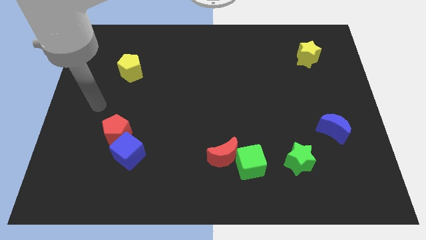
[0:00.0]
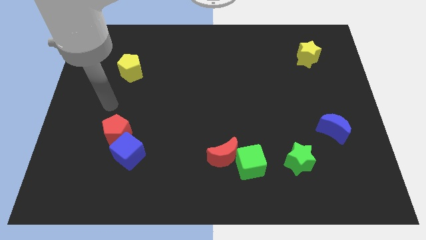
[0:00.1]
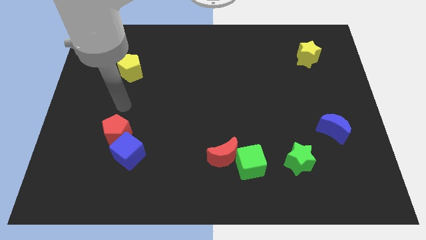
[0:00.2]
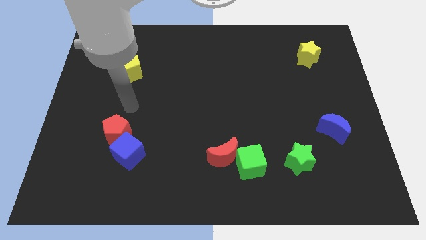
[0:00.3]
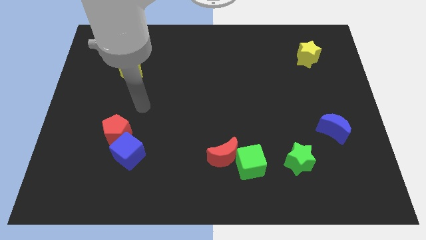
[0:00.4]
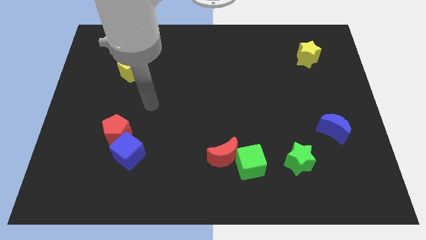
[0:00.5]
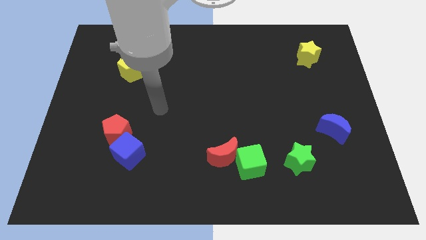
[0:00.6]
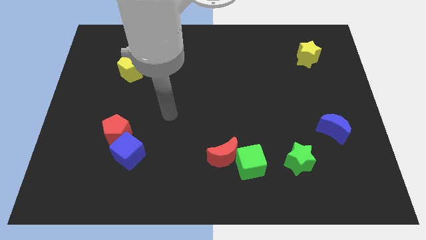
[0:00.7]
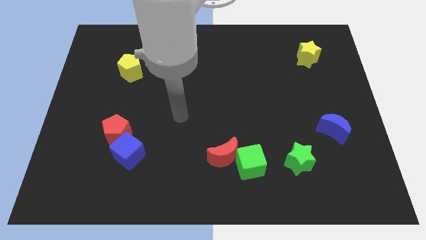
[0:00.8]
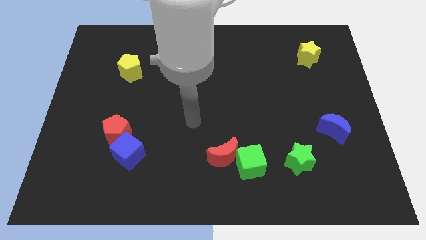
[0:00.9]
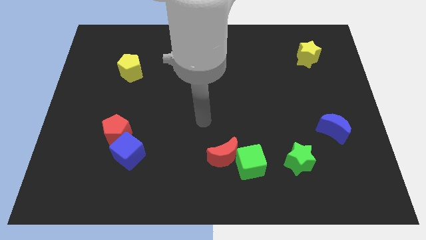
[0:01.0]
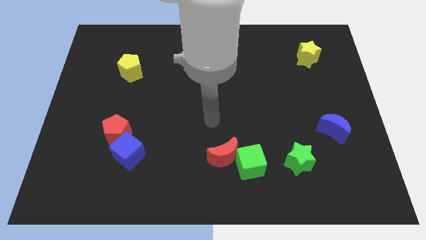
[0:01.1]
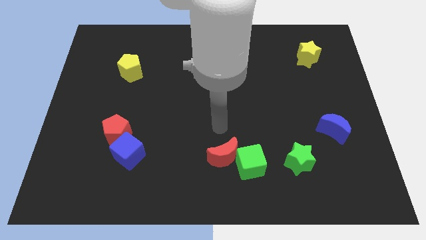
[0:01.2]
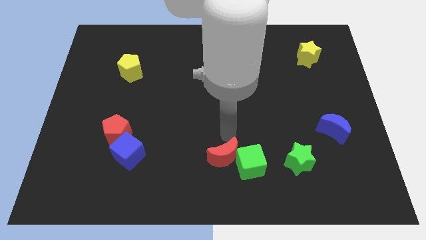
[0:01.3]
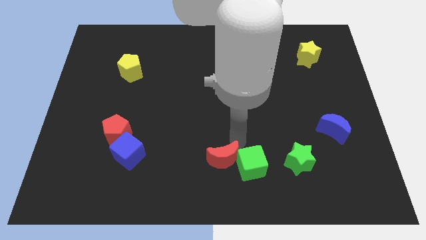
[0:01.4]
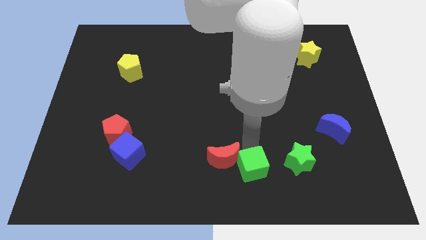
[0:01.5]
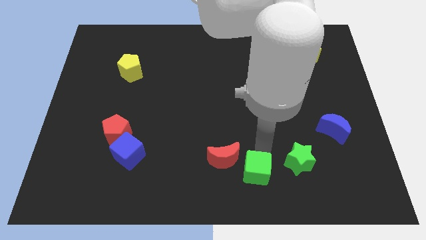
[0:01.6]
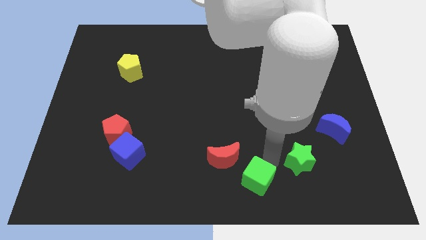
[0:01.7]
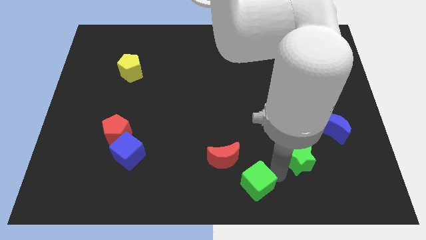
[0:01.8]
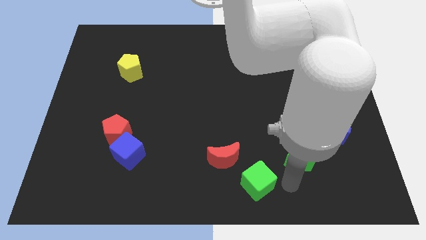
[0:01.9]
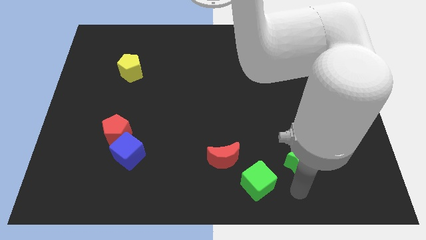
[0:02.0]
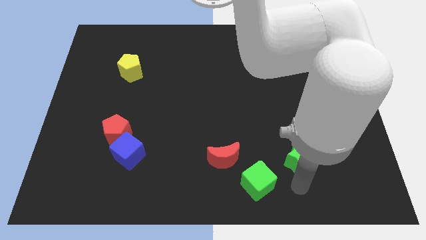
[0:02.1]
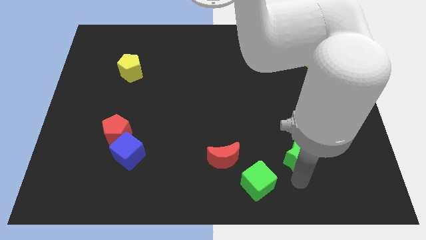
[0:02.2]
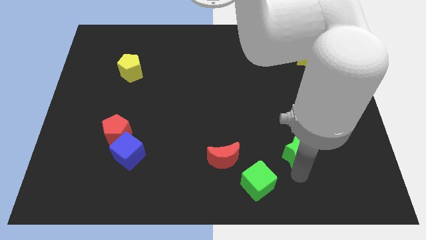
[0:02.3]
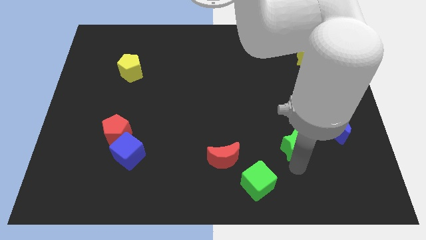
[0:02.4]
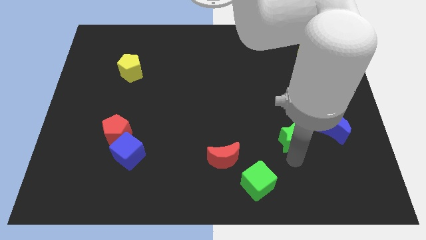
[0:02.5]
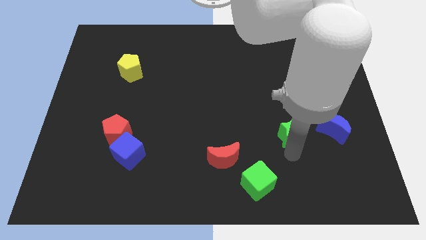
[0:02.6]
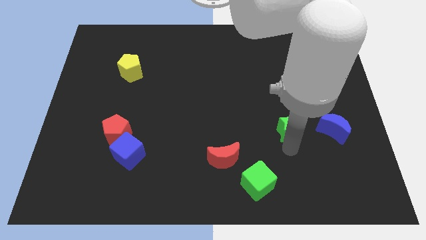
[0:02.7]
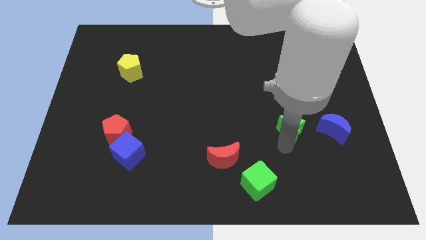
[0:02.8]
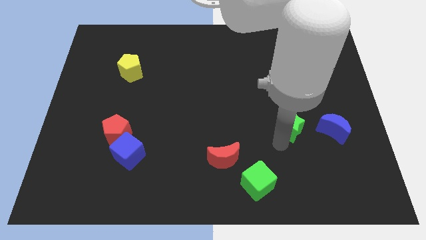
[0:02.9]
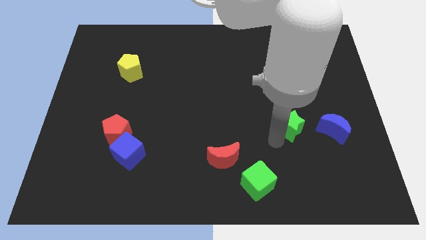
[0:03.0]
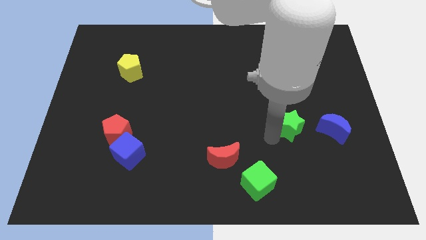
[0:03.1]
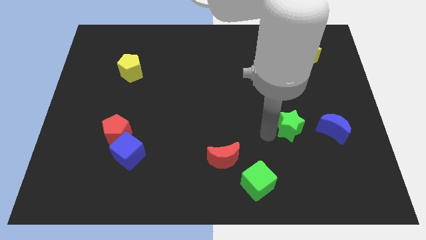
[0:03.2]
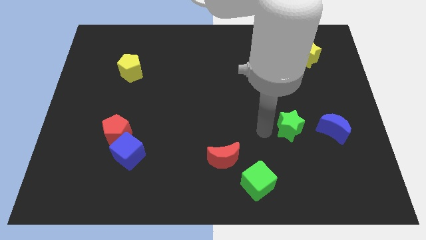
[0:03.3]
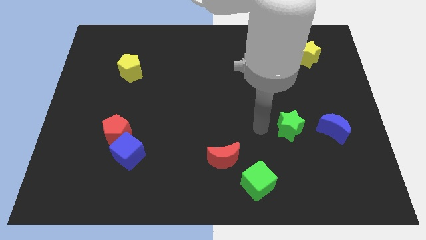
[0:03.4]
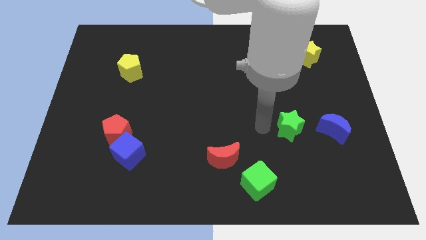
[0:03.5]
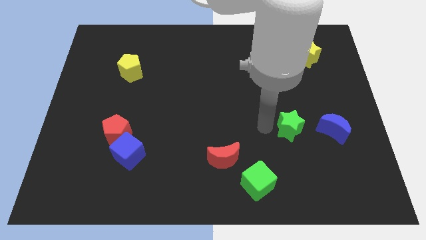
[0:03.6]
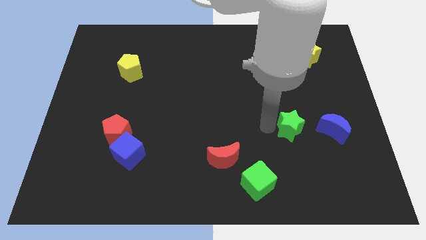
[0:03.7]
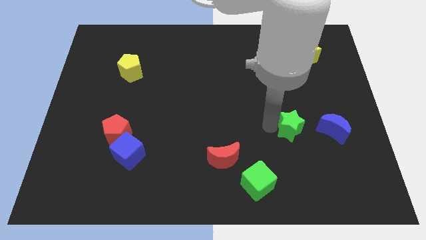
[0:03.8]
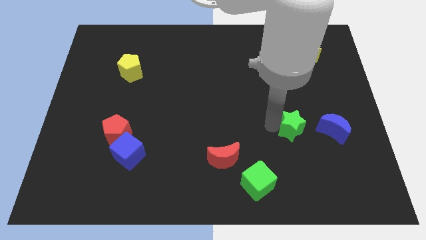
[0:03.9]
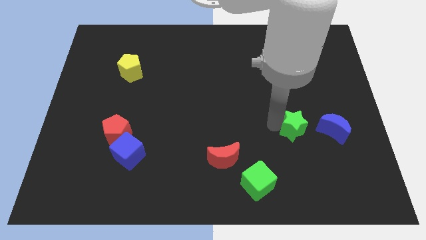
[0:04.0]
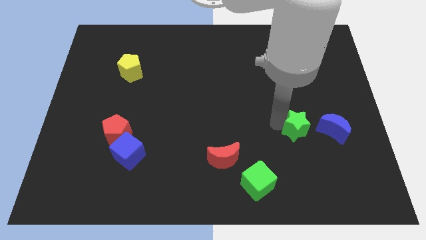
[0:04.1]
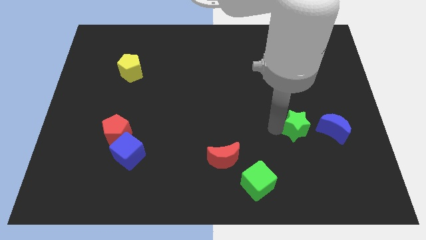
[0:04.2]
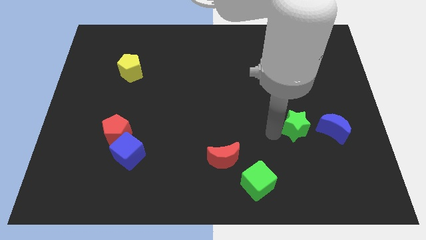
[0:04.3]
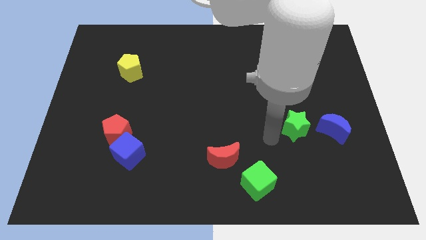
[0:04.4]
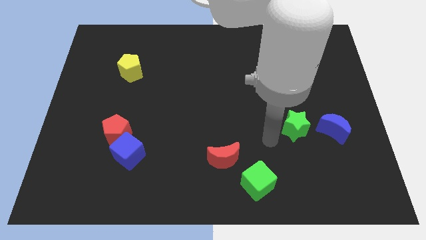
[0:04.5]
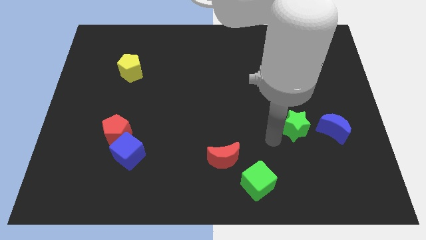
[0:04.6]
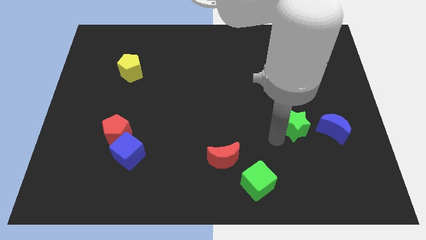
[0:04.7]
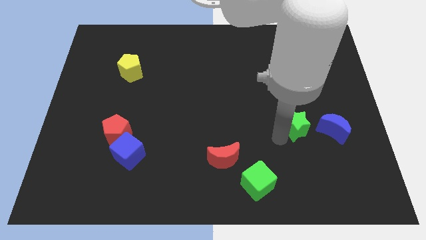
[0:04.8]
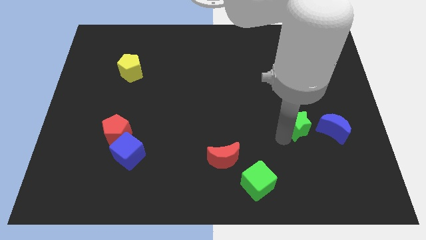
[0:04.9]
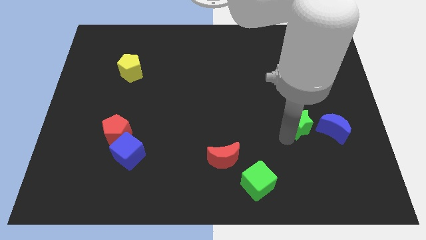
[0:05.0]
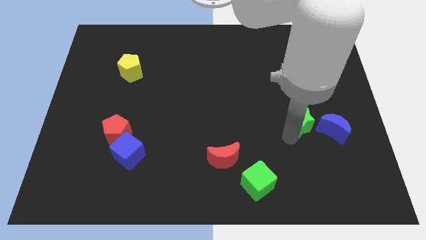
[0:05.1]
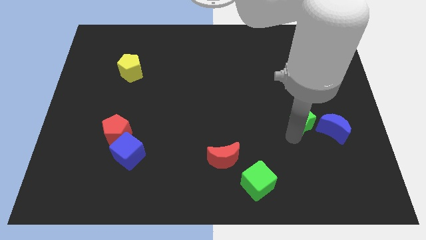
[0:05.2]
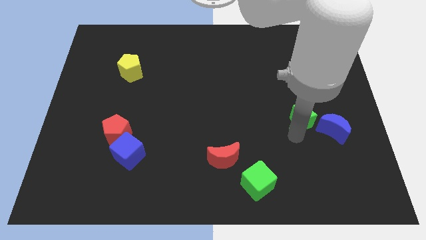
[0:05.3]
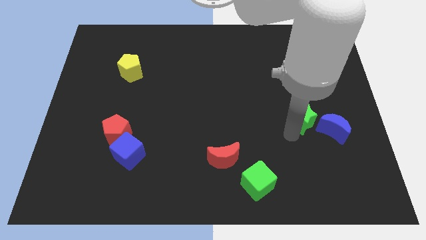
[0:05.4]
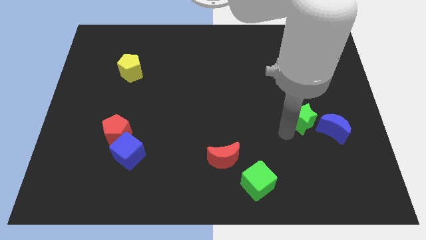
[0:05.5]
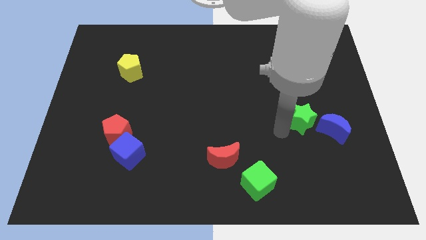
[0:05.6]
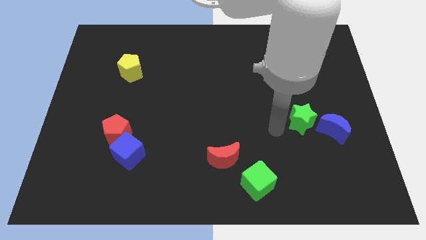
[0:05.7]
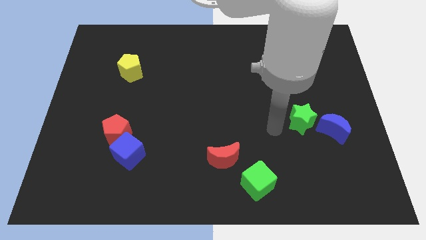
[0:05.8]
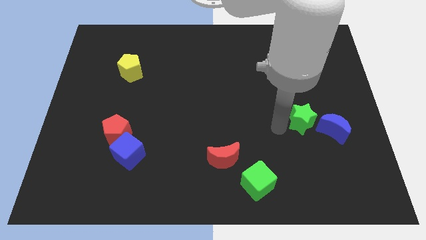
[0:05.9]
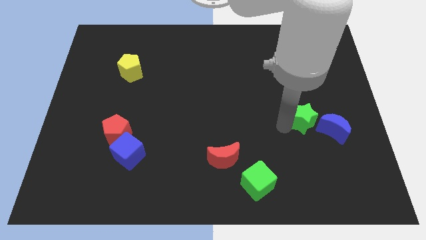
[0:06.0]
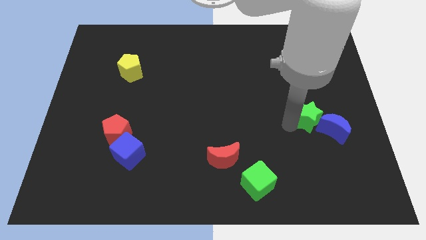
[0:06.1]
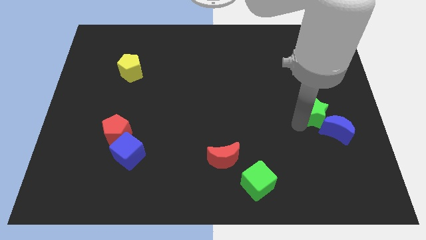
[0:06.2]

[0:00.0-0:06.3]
move the green star above the blue moon

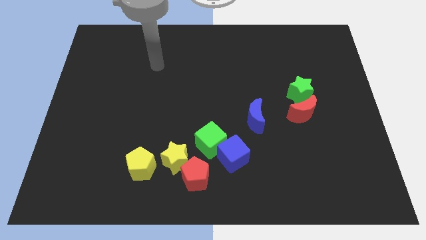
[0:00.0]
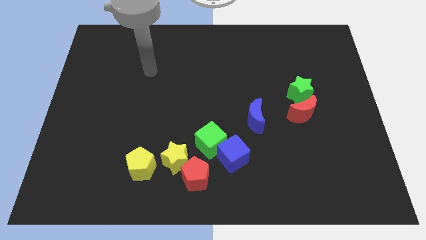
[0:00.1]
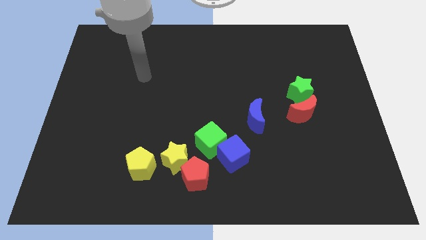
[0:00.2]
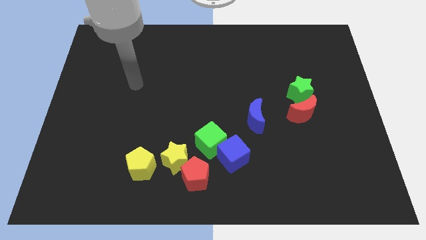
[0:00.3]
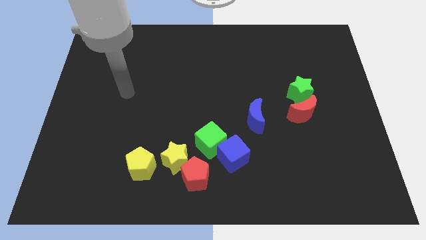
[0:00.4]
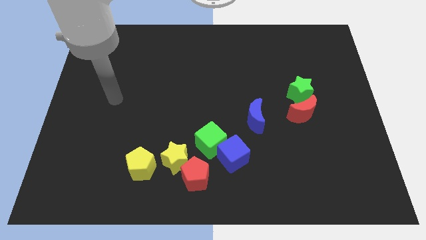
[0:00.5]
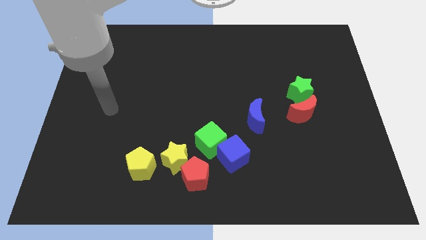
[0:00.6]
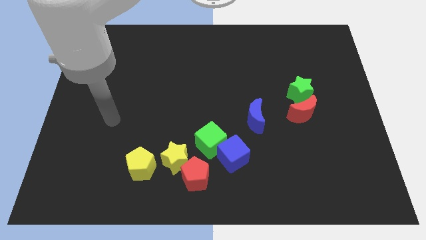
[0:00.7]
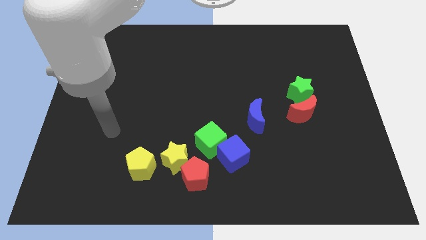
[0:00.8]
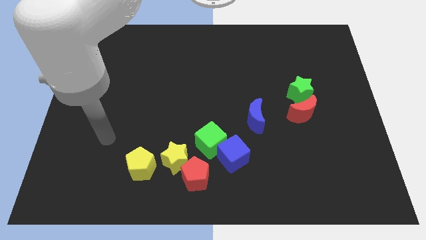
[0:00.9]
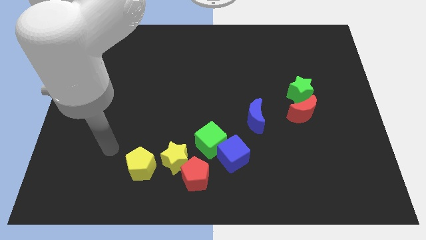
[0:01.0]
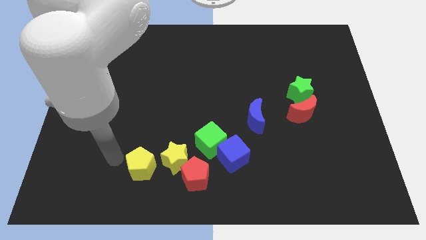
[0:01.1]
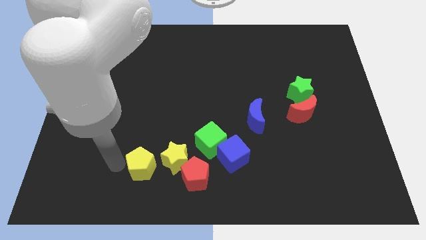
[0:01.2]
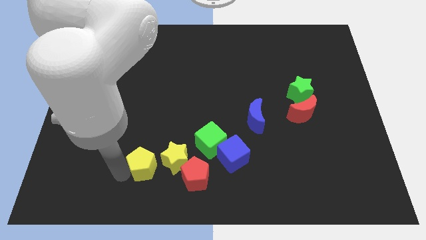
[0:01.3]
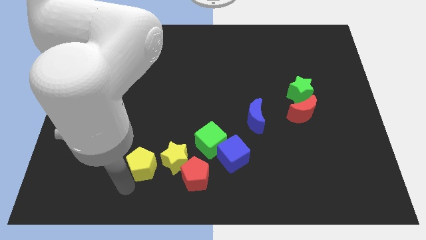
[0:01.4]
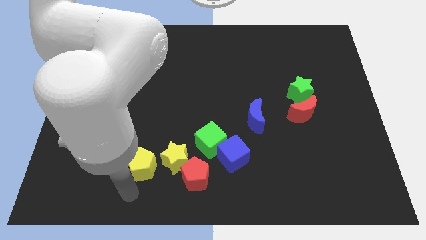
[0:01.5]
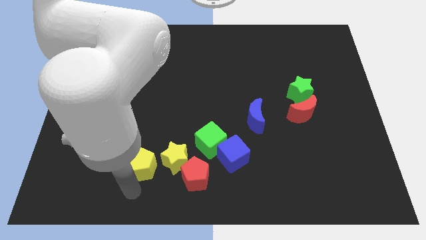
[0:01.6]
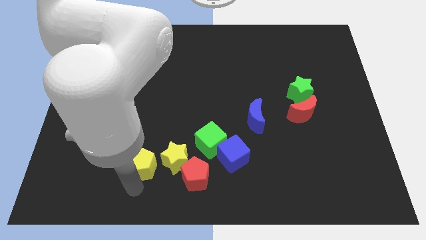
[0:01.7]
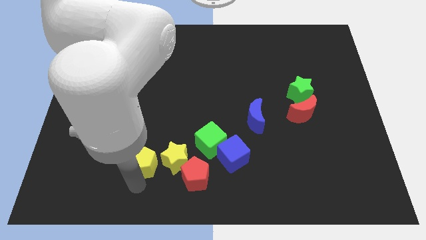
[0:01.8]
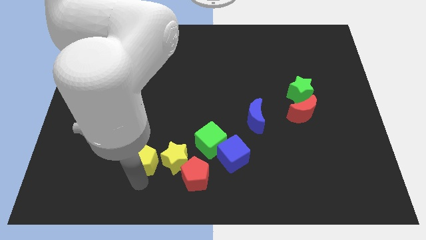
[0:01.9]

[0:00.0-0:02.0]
push the yellow pentagon to the top left side of the yellow star
